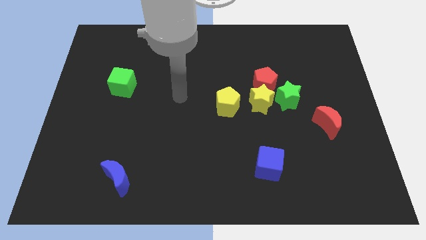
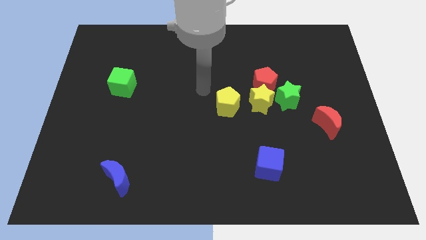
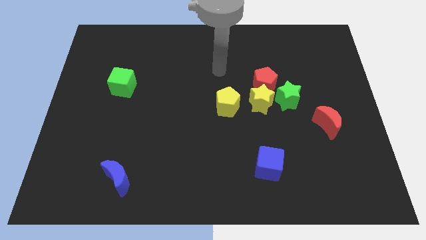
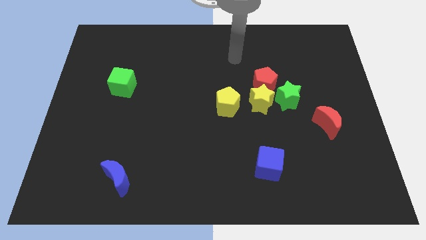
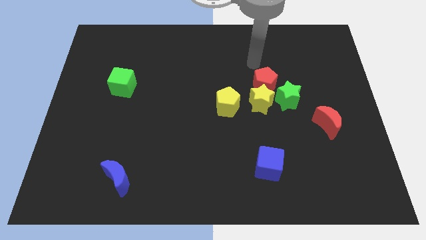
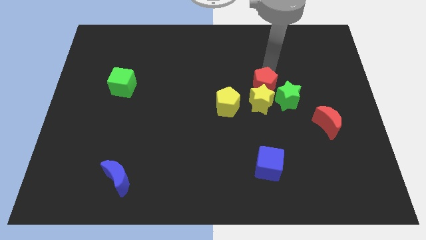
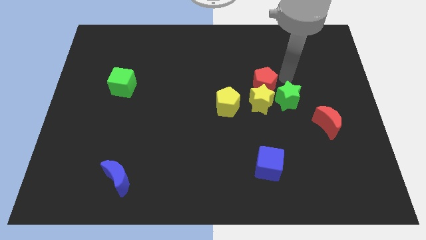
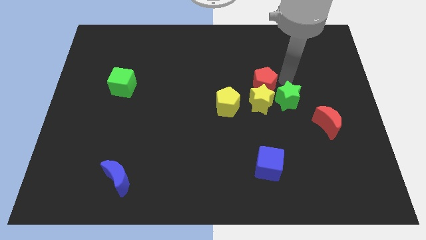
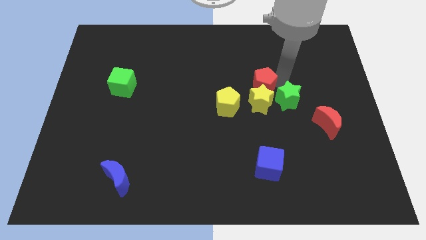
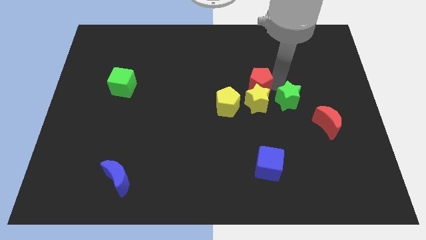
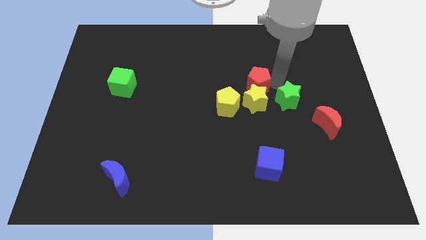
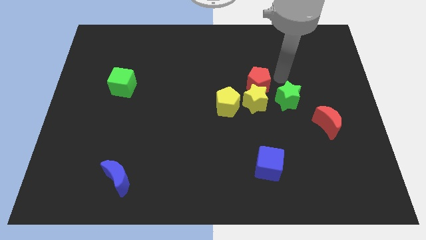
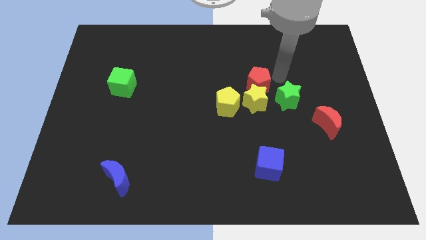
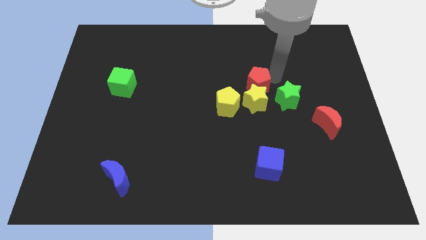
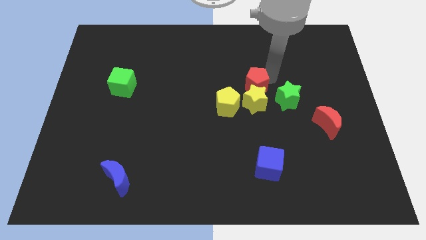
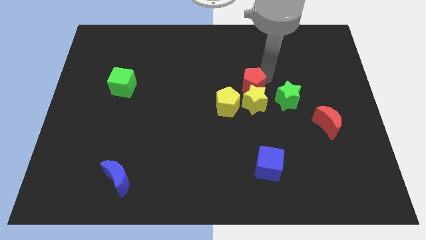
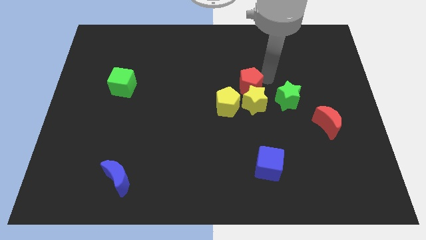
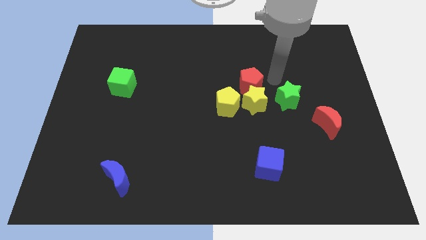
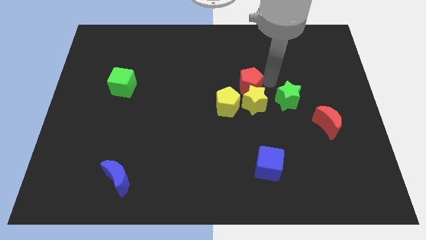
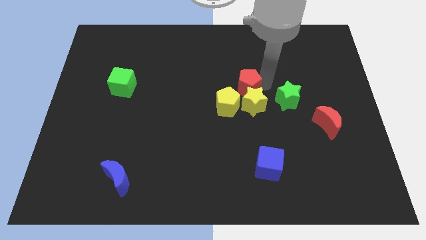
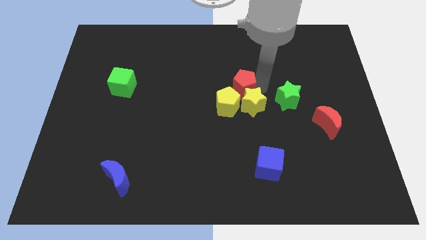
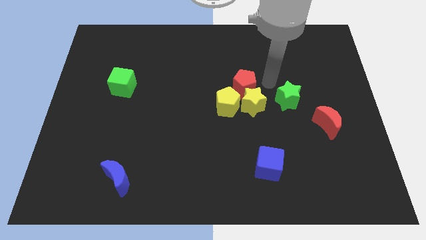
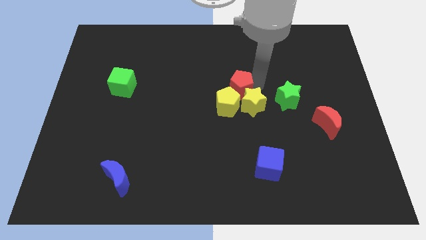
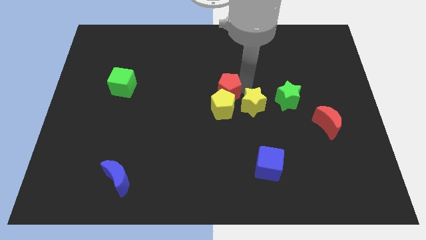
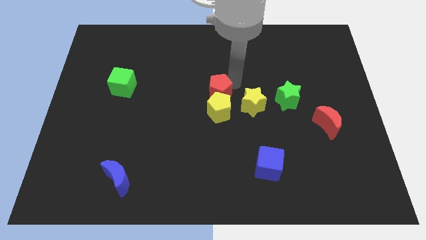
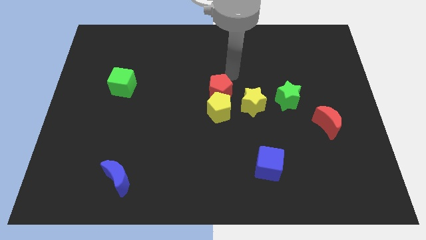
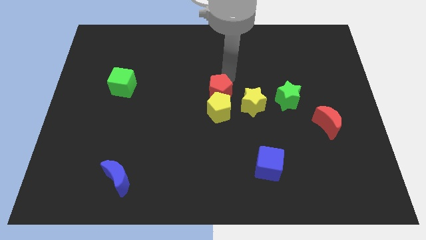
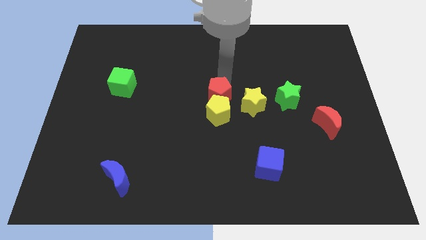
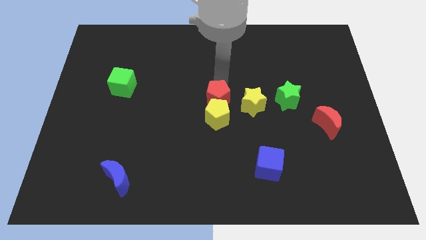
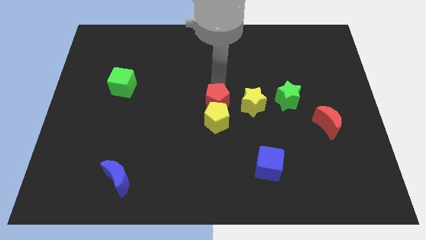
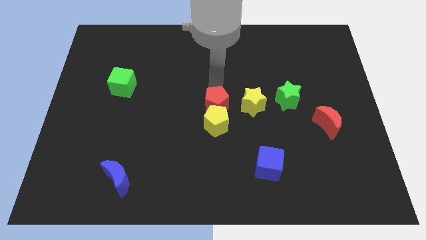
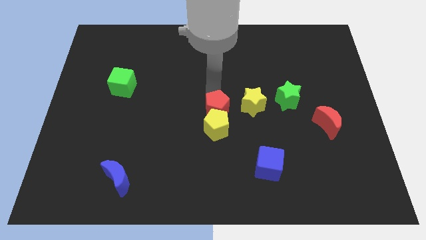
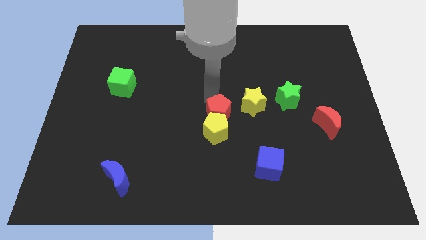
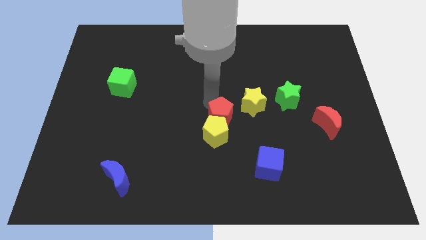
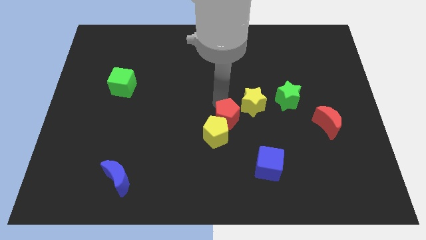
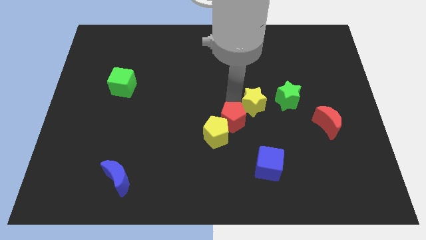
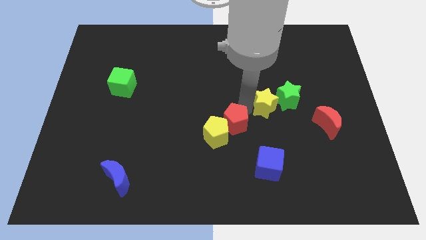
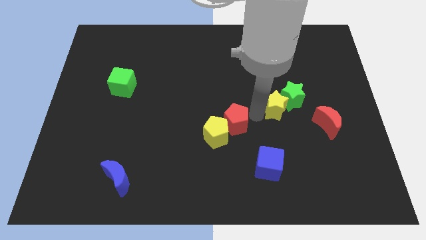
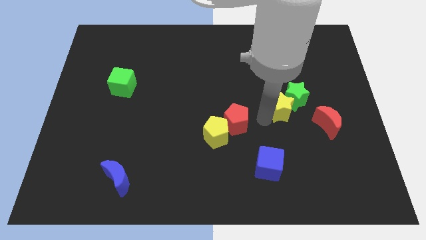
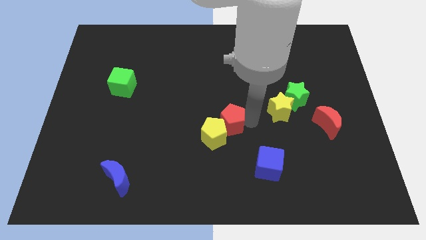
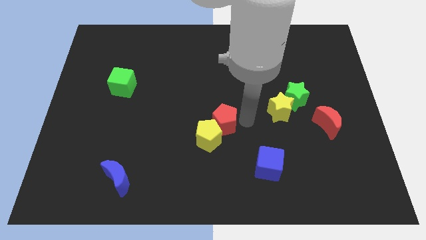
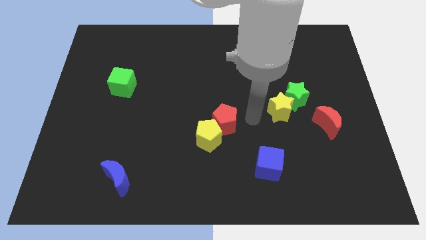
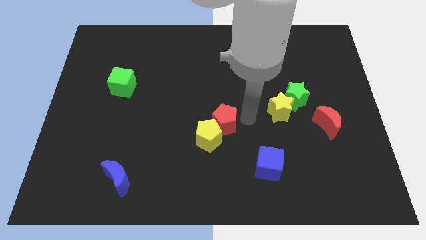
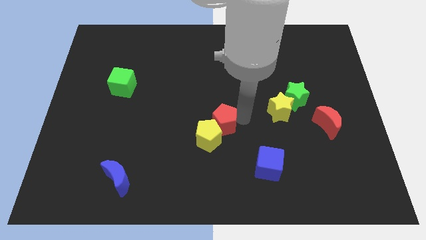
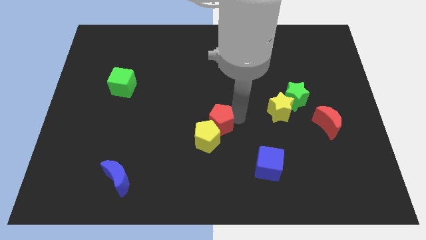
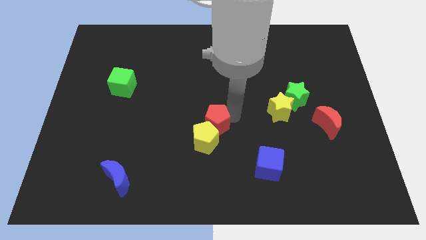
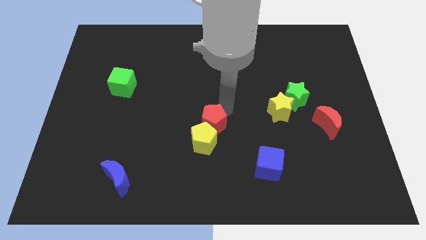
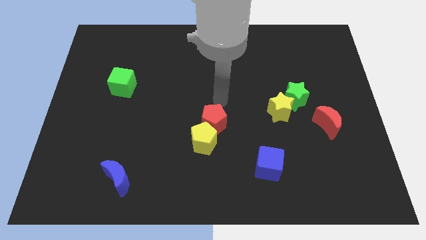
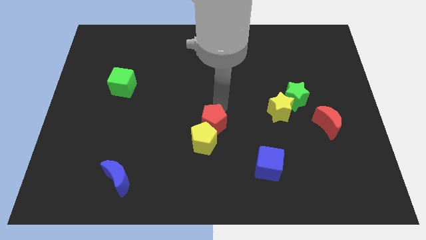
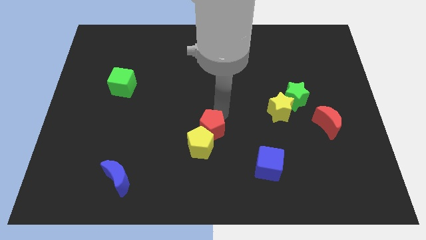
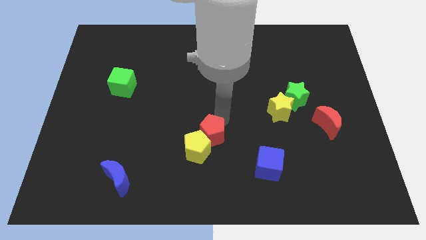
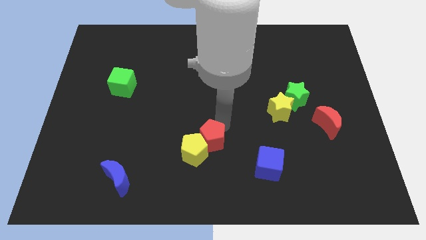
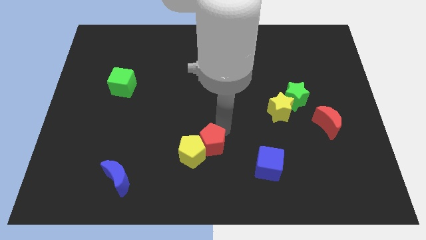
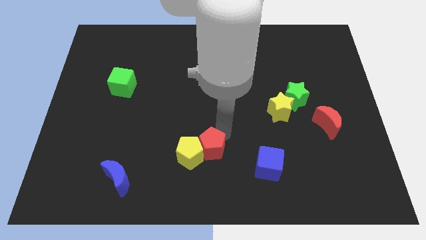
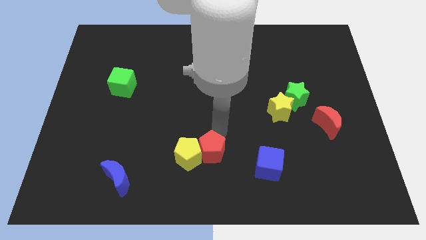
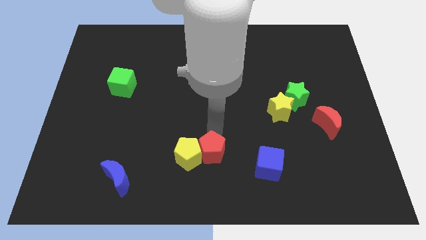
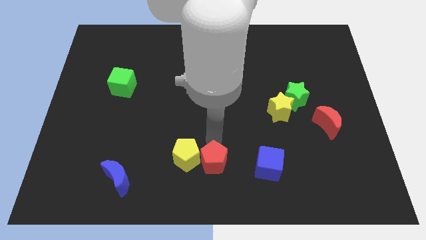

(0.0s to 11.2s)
put the red pentagon to the bottom side
